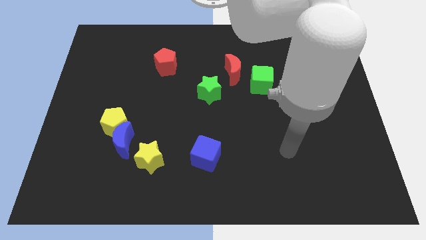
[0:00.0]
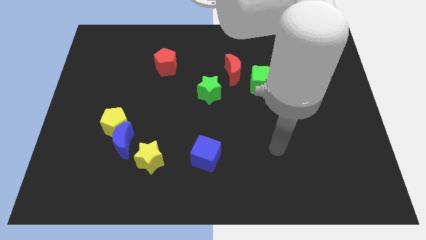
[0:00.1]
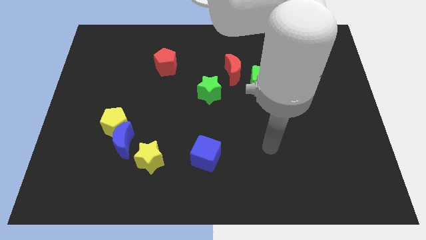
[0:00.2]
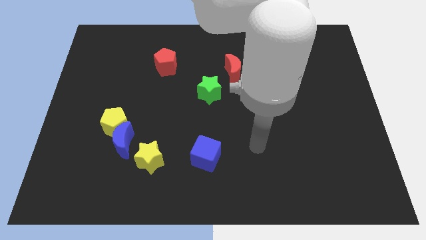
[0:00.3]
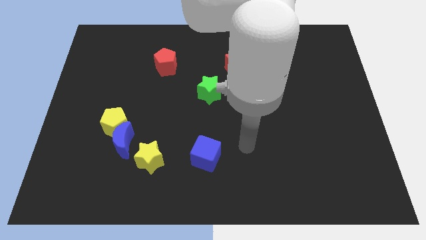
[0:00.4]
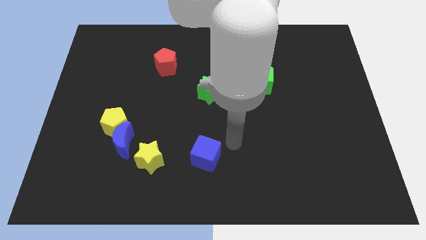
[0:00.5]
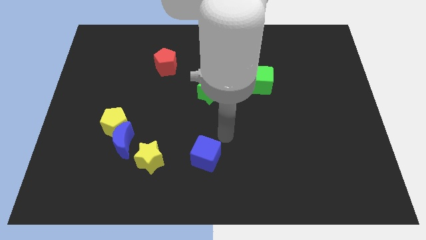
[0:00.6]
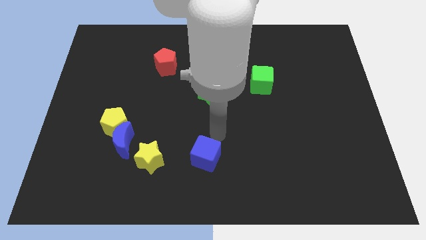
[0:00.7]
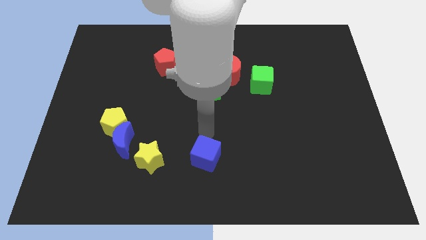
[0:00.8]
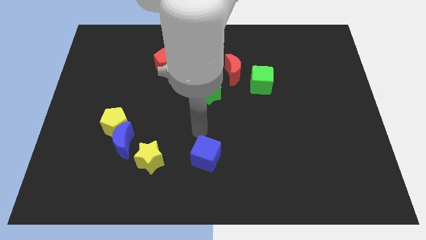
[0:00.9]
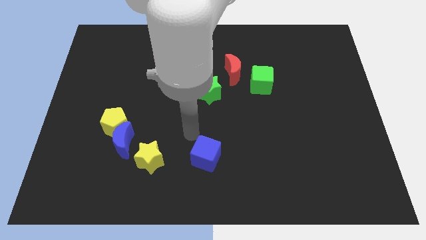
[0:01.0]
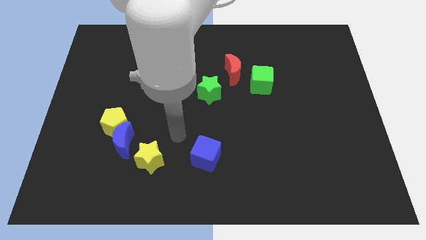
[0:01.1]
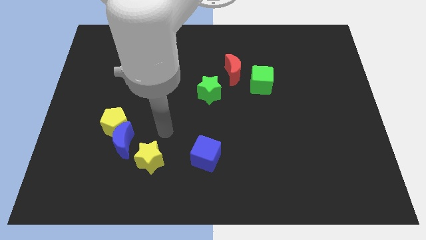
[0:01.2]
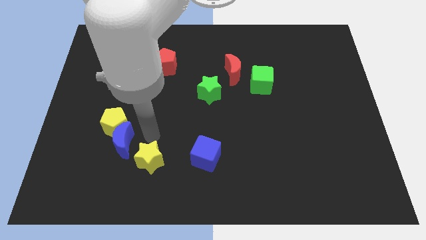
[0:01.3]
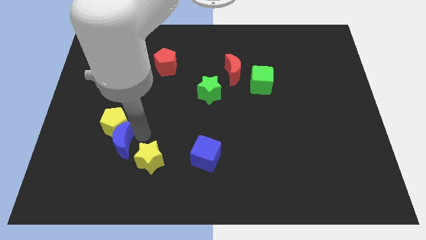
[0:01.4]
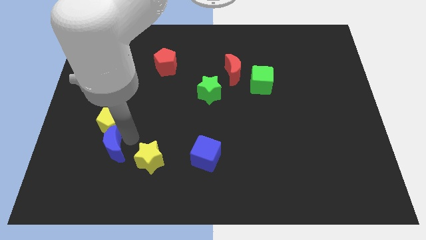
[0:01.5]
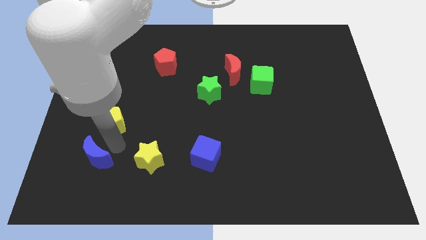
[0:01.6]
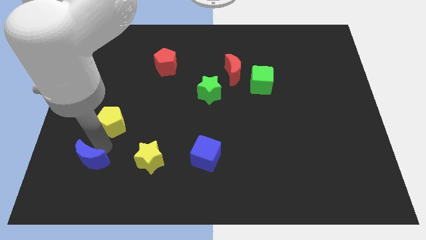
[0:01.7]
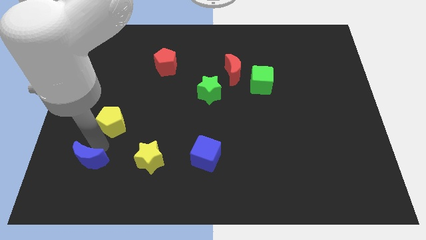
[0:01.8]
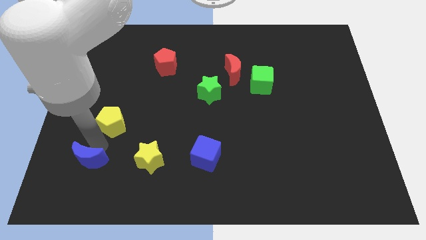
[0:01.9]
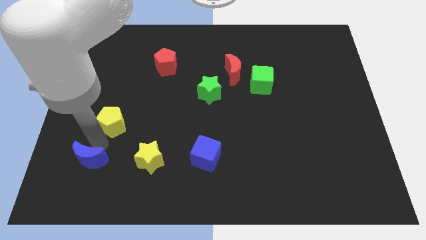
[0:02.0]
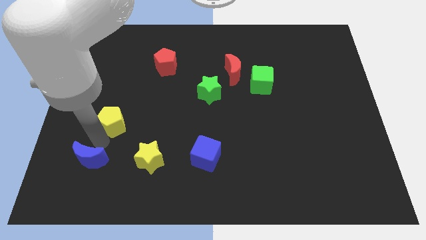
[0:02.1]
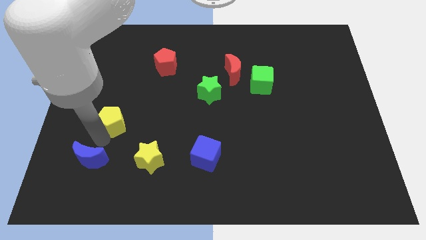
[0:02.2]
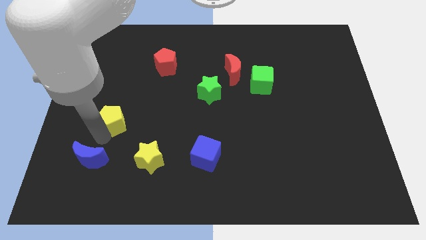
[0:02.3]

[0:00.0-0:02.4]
pull the yellow pentagon apart from the blue moon

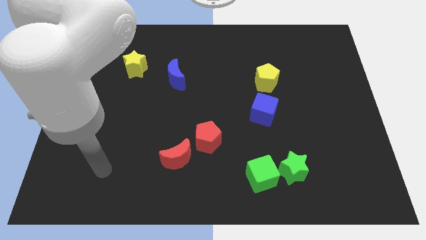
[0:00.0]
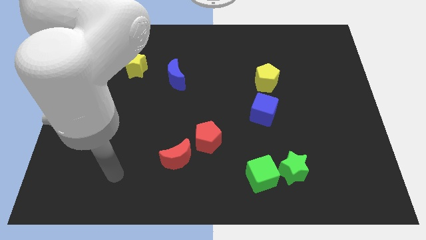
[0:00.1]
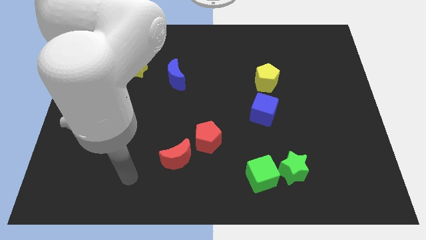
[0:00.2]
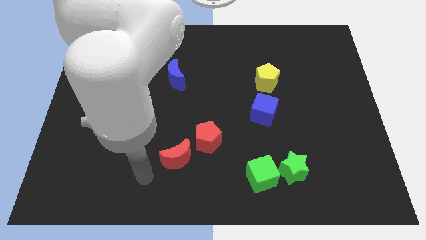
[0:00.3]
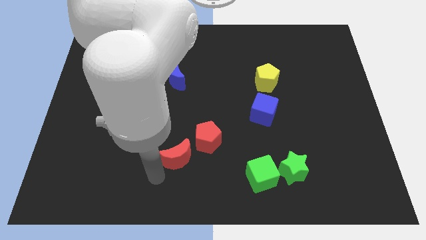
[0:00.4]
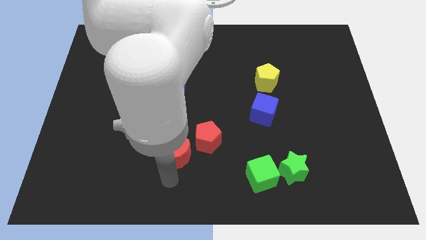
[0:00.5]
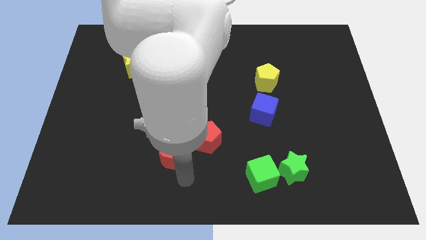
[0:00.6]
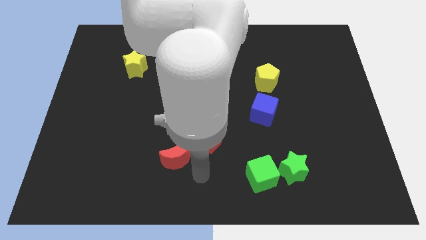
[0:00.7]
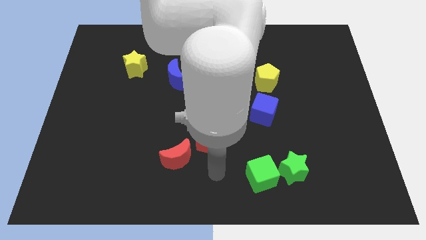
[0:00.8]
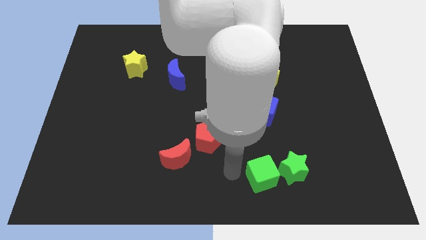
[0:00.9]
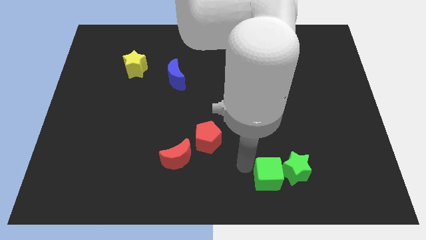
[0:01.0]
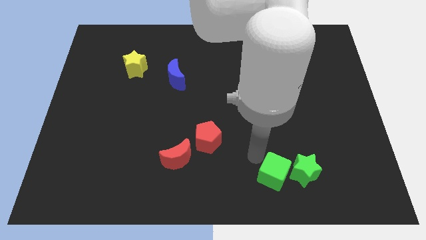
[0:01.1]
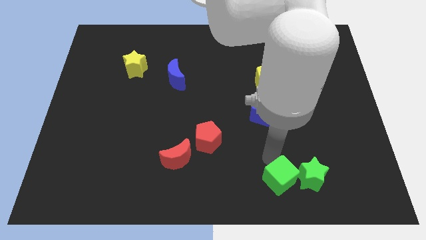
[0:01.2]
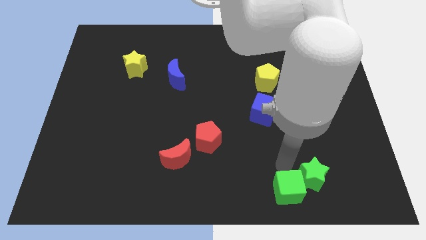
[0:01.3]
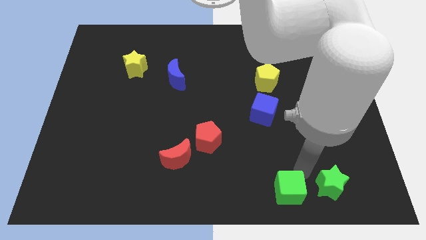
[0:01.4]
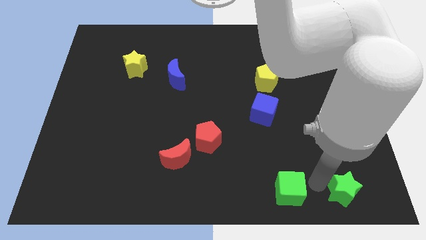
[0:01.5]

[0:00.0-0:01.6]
pull the green cube apart from the green star

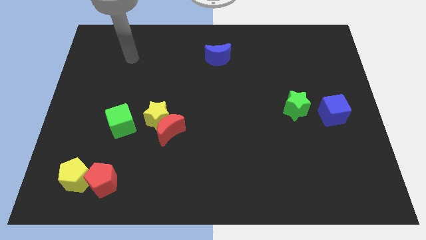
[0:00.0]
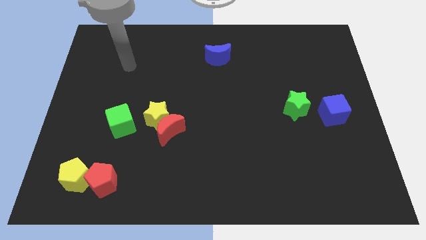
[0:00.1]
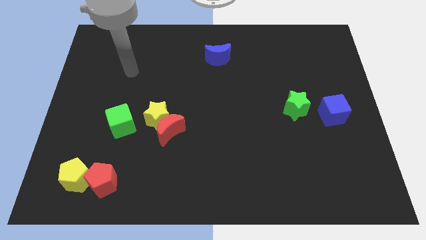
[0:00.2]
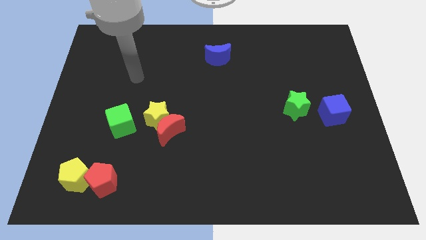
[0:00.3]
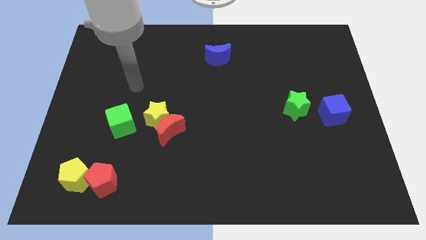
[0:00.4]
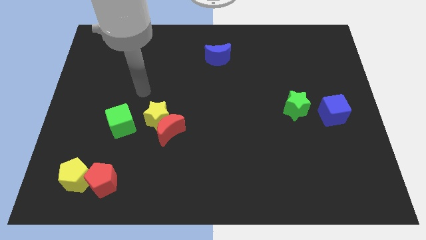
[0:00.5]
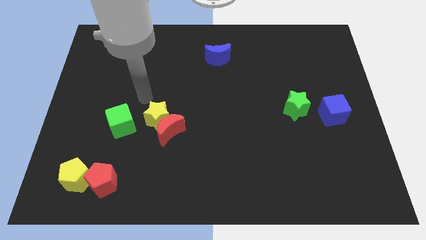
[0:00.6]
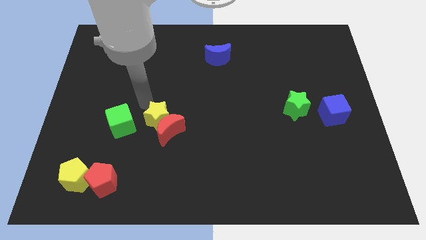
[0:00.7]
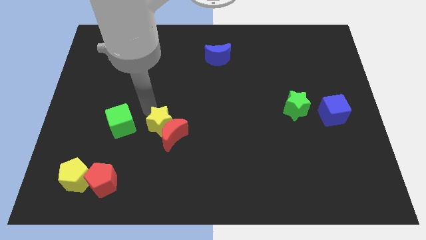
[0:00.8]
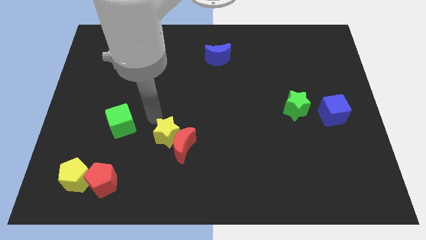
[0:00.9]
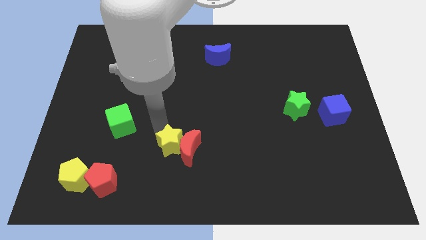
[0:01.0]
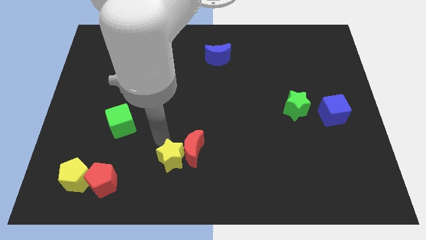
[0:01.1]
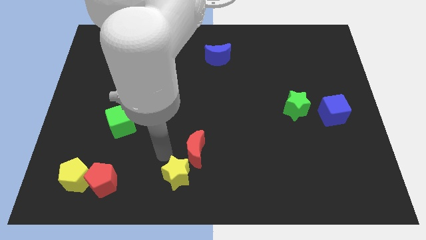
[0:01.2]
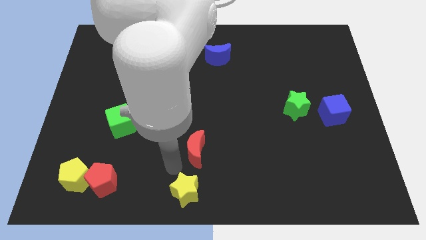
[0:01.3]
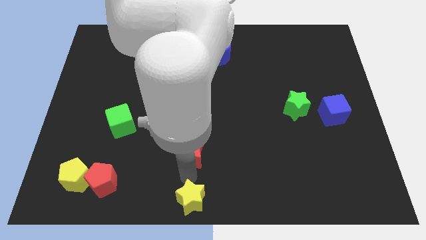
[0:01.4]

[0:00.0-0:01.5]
move the red moon away from the yellow star

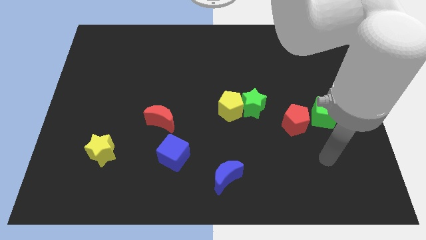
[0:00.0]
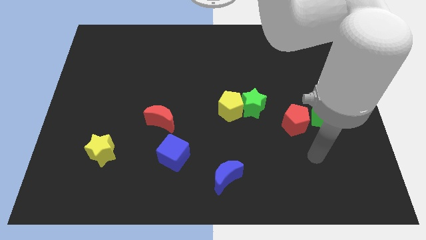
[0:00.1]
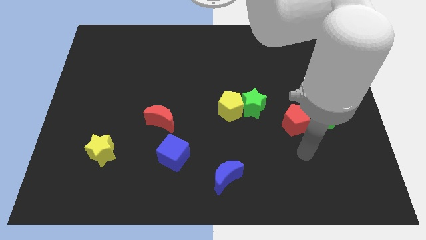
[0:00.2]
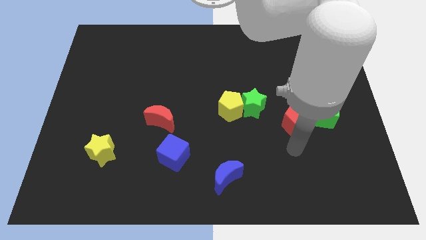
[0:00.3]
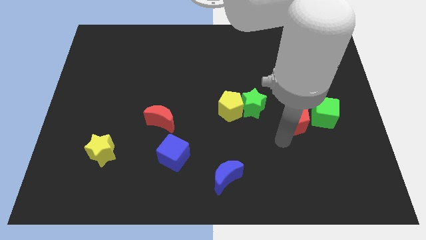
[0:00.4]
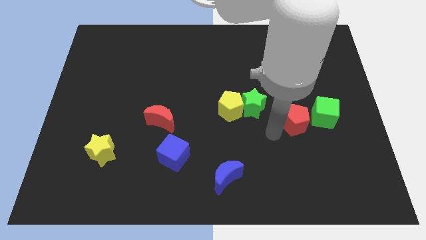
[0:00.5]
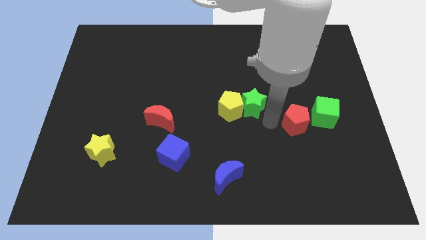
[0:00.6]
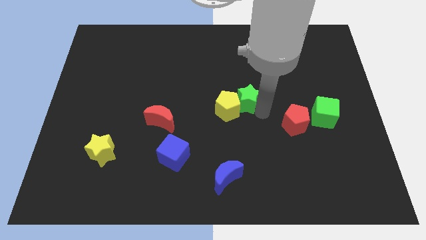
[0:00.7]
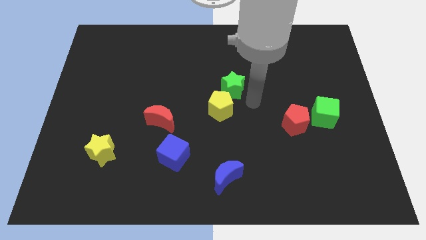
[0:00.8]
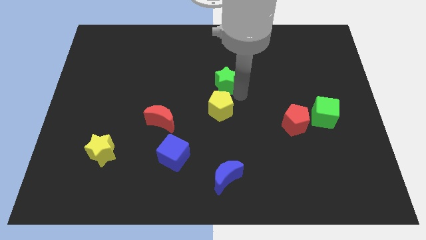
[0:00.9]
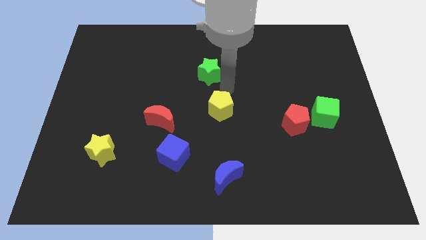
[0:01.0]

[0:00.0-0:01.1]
pull the yellow pentagon apart from the green star

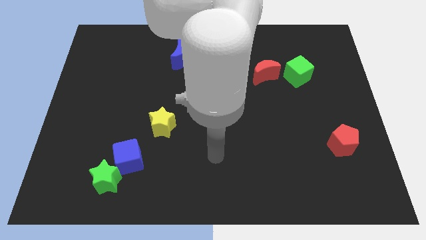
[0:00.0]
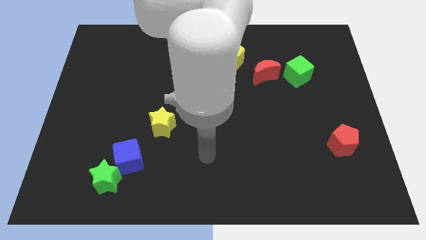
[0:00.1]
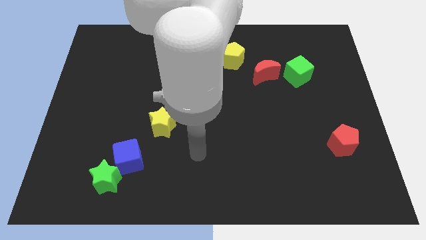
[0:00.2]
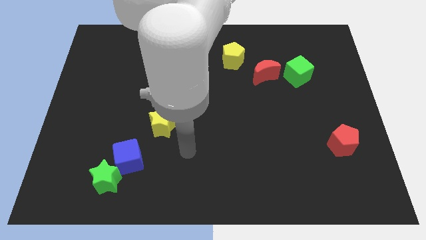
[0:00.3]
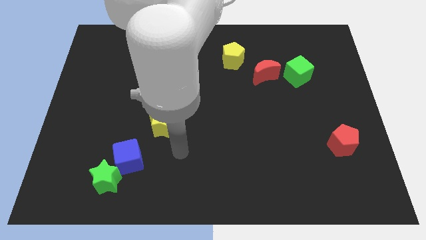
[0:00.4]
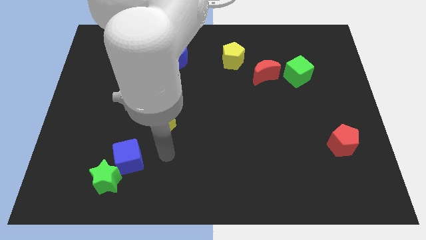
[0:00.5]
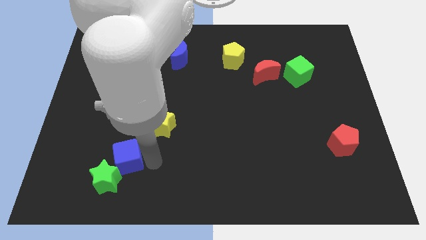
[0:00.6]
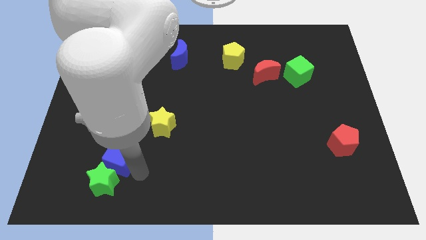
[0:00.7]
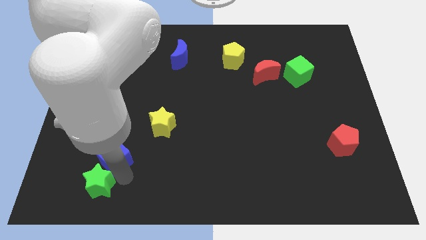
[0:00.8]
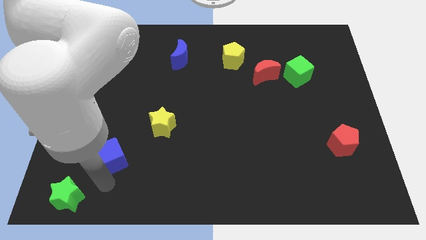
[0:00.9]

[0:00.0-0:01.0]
separate the blue cube from the green star

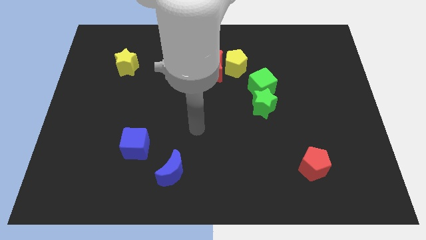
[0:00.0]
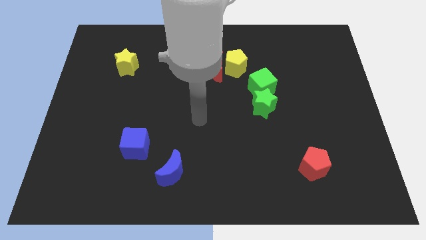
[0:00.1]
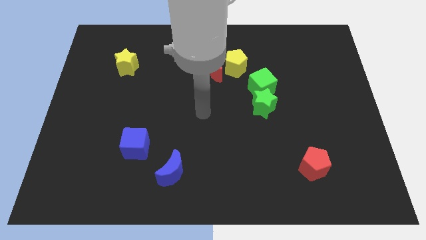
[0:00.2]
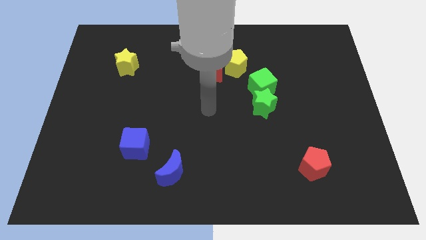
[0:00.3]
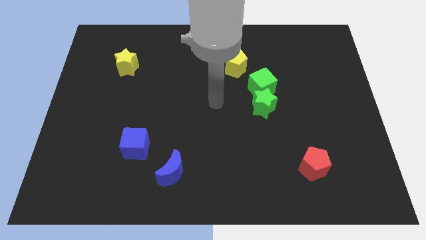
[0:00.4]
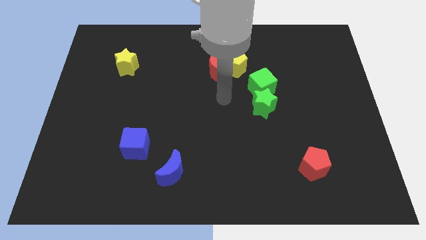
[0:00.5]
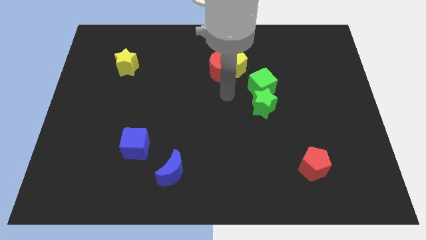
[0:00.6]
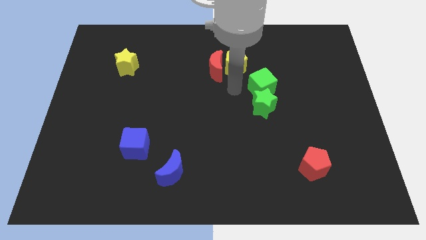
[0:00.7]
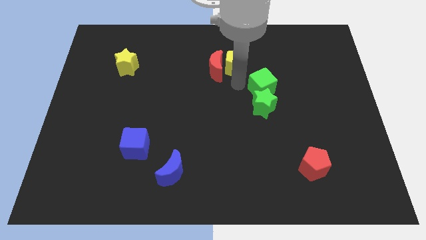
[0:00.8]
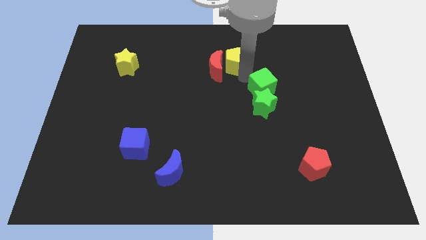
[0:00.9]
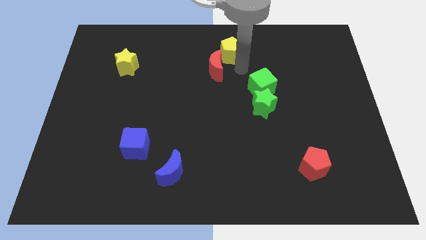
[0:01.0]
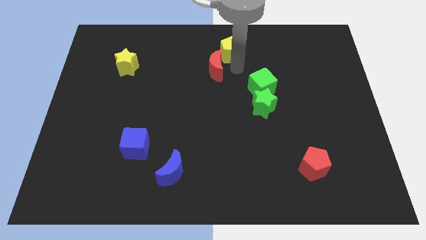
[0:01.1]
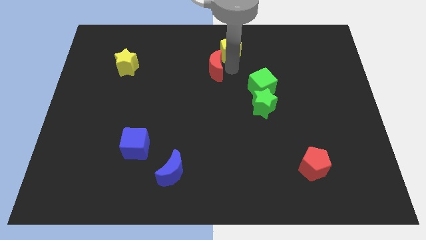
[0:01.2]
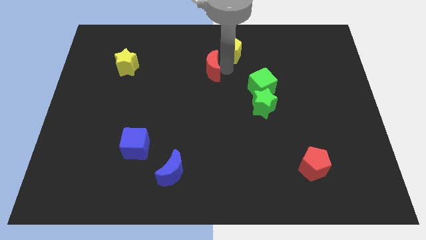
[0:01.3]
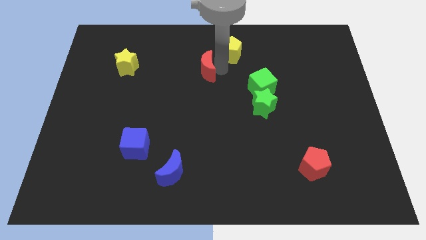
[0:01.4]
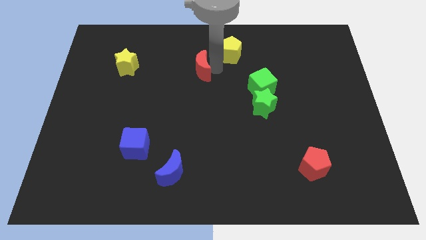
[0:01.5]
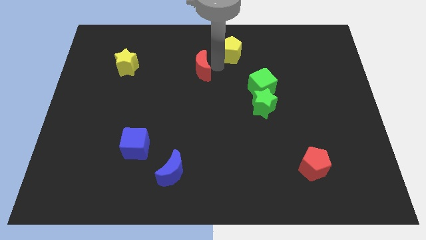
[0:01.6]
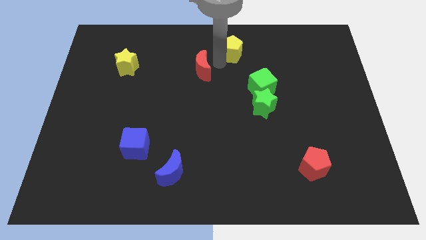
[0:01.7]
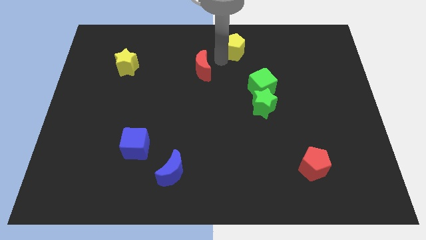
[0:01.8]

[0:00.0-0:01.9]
move the red moon away from the yellow pentagon
